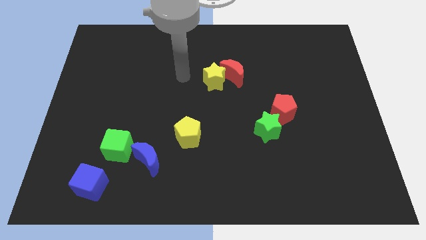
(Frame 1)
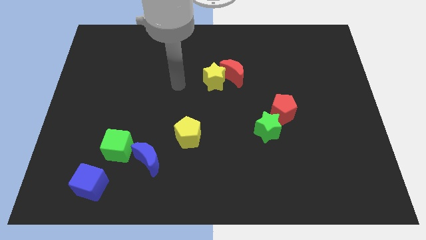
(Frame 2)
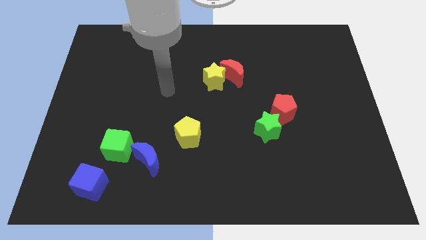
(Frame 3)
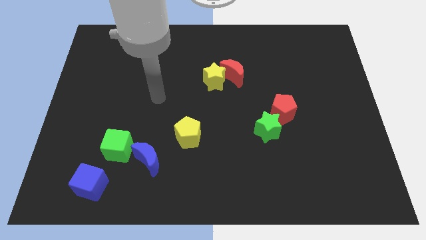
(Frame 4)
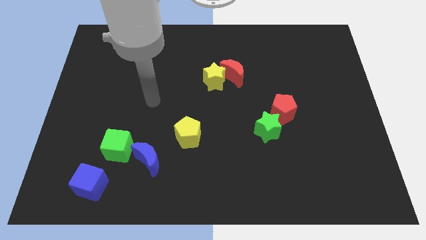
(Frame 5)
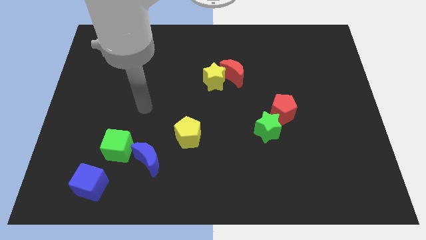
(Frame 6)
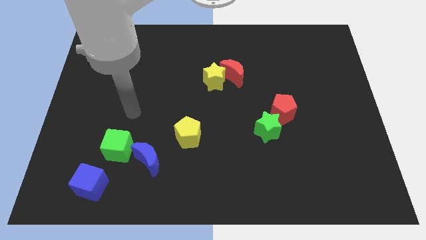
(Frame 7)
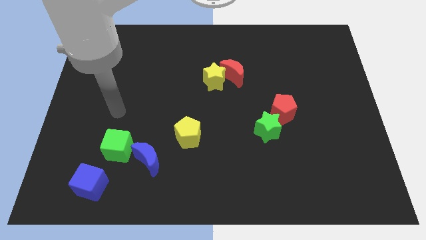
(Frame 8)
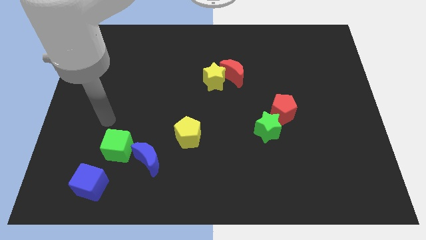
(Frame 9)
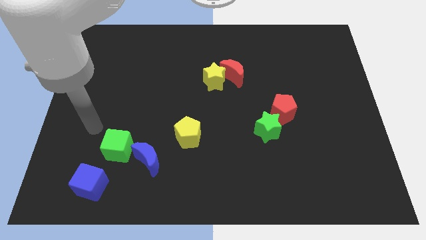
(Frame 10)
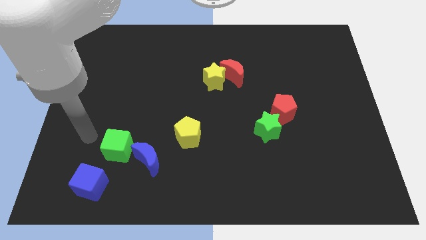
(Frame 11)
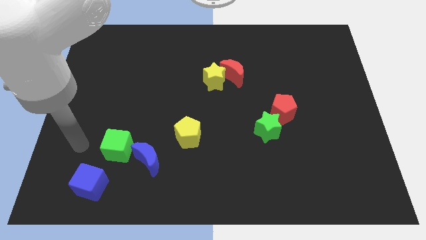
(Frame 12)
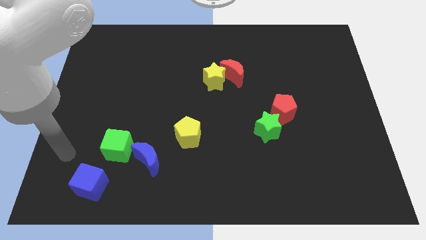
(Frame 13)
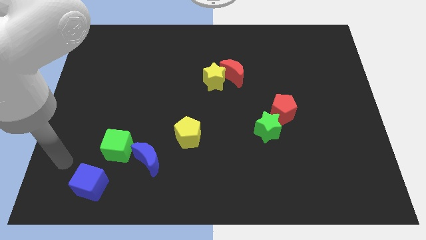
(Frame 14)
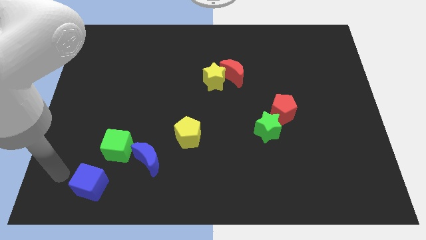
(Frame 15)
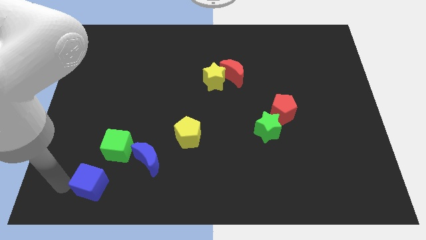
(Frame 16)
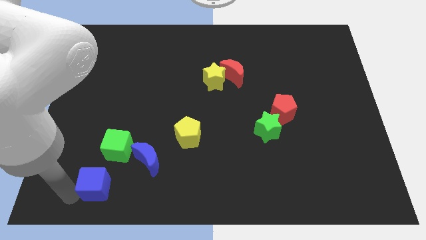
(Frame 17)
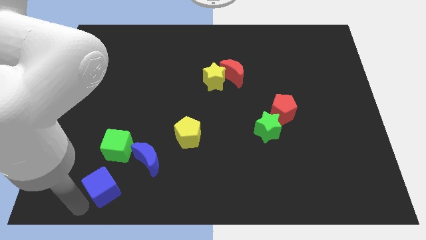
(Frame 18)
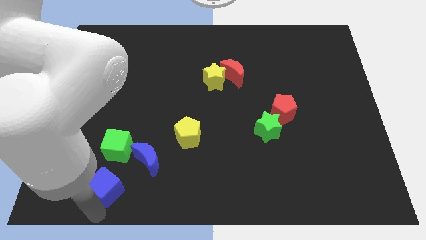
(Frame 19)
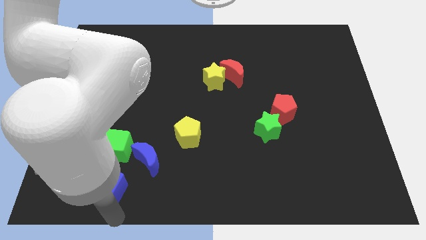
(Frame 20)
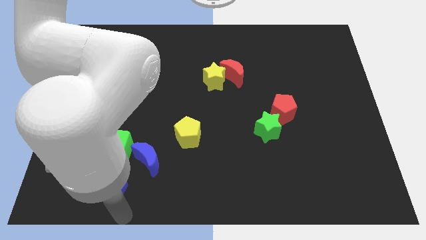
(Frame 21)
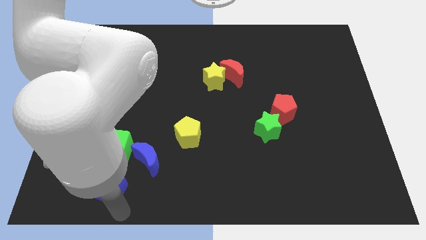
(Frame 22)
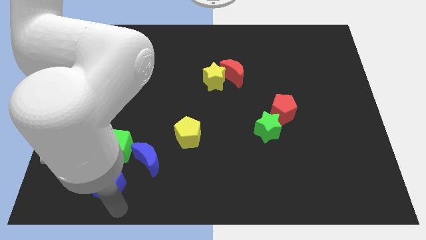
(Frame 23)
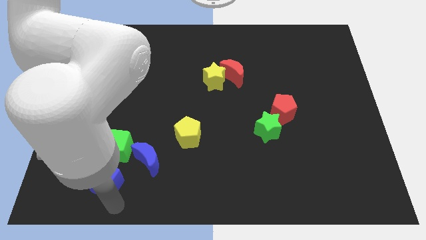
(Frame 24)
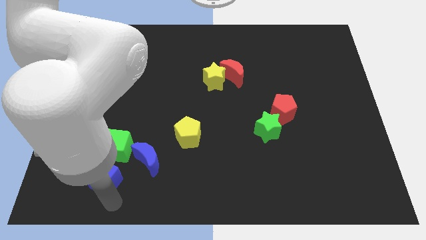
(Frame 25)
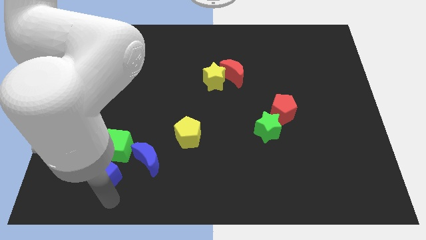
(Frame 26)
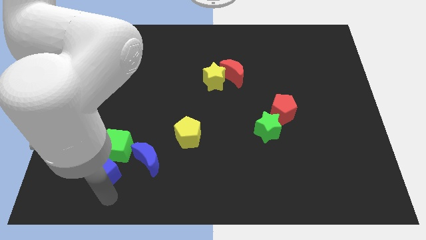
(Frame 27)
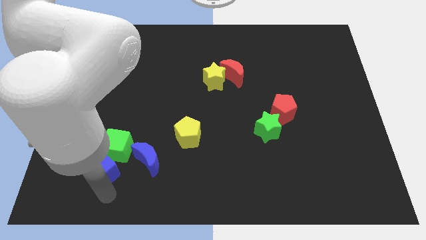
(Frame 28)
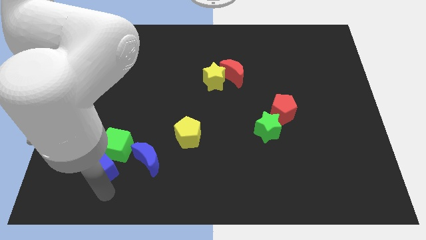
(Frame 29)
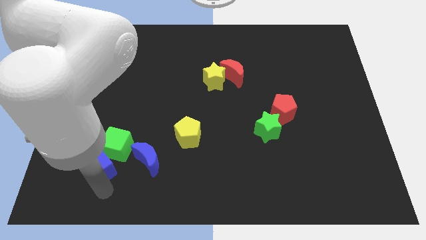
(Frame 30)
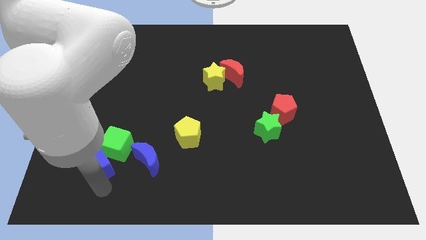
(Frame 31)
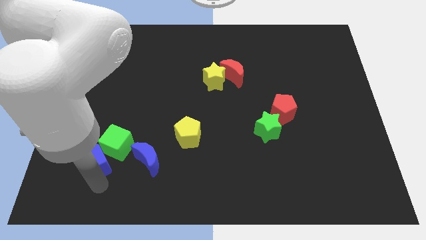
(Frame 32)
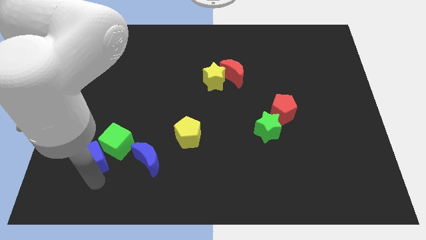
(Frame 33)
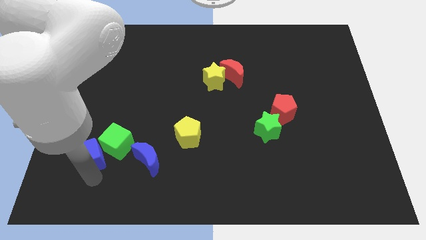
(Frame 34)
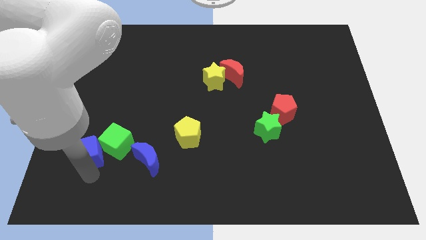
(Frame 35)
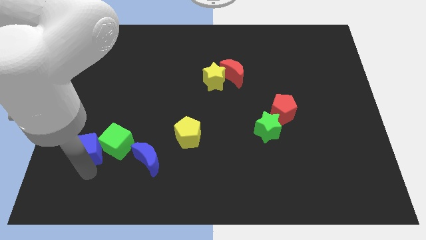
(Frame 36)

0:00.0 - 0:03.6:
move the blue cube a little bit upwards

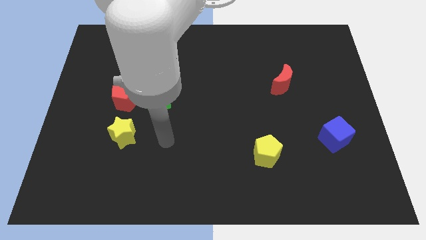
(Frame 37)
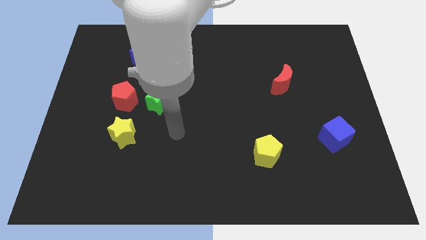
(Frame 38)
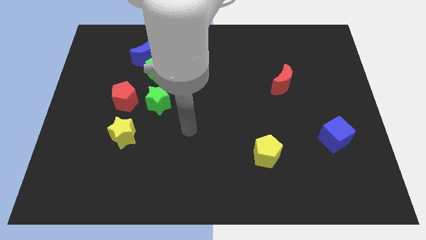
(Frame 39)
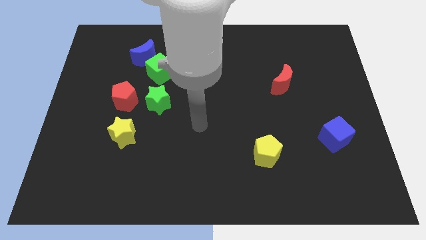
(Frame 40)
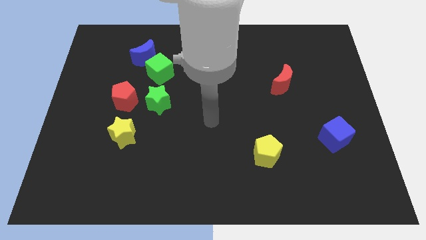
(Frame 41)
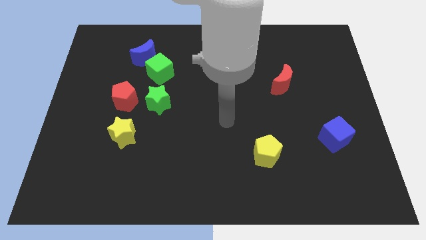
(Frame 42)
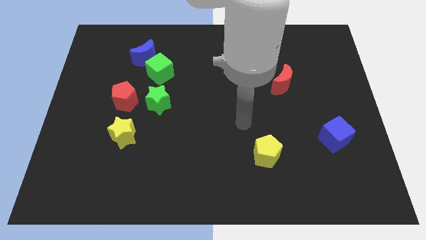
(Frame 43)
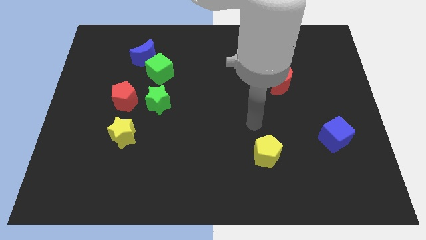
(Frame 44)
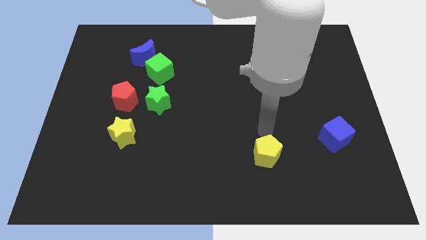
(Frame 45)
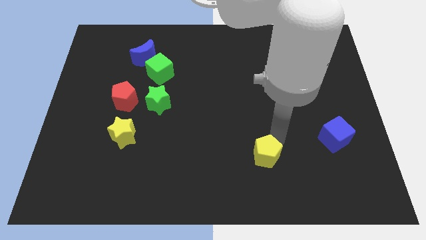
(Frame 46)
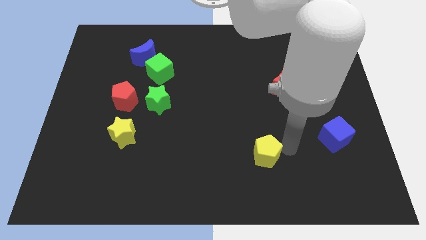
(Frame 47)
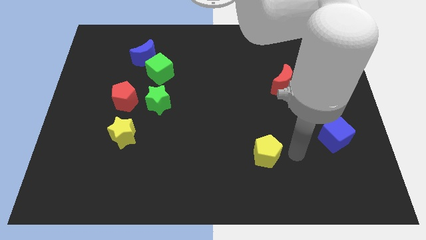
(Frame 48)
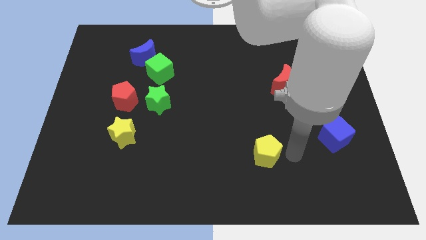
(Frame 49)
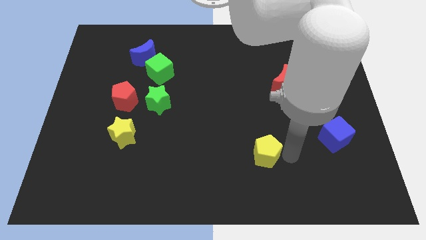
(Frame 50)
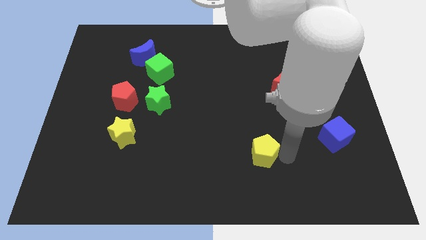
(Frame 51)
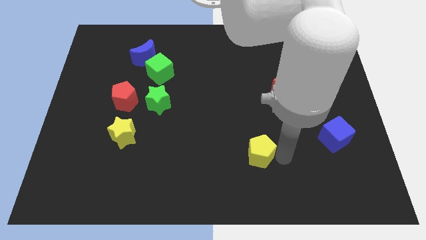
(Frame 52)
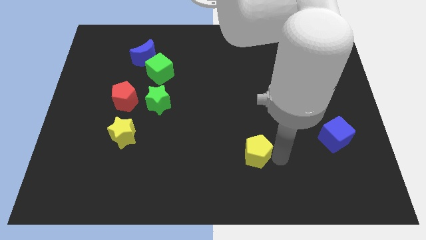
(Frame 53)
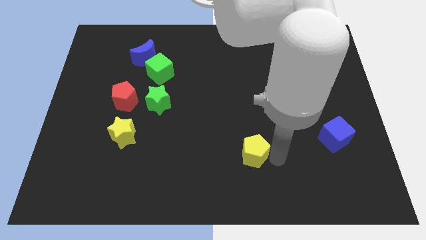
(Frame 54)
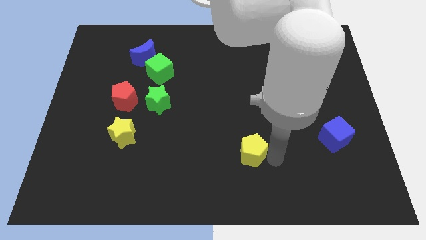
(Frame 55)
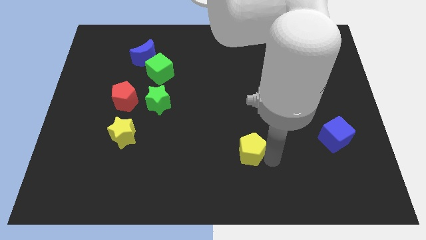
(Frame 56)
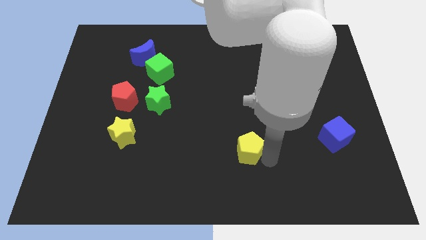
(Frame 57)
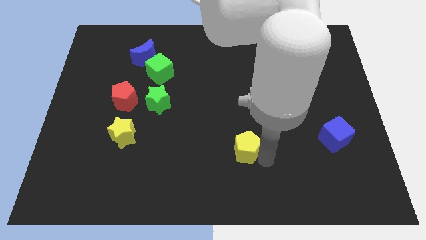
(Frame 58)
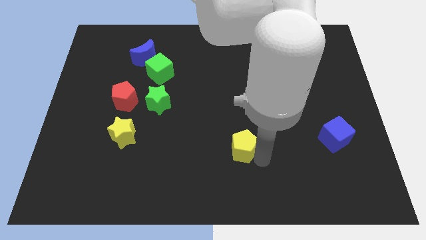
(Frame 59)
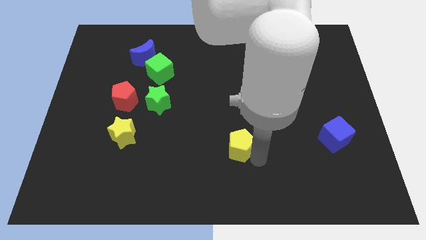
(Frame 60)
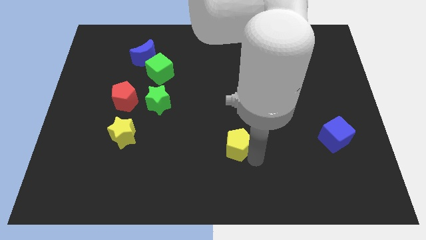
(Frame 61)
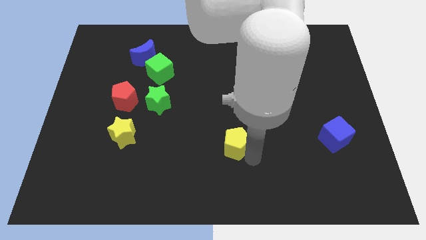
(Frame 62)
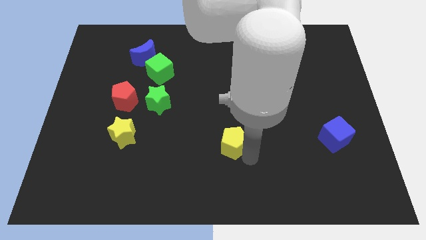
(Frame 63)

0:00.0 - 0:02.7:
slide the yellow pentagon a bit to the left

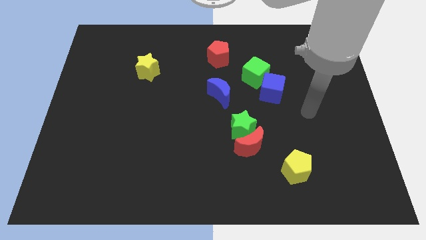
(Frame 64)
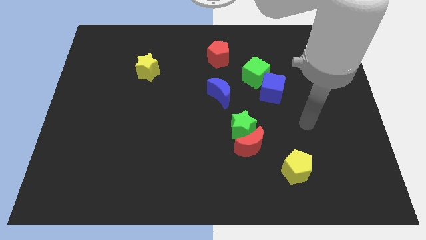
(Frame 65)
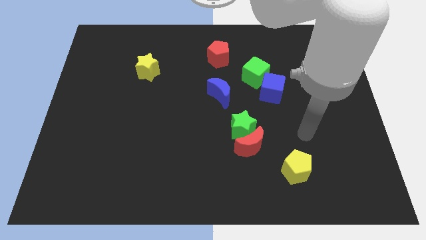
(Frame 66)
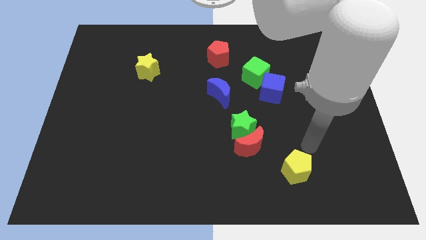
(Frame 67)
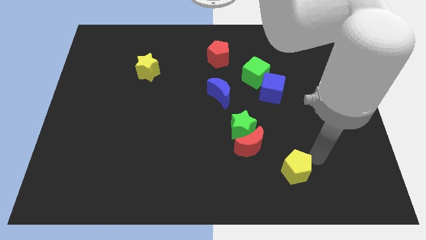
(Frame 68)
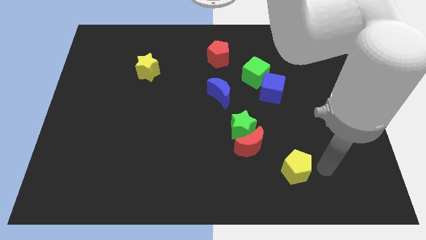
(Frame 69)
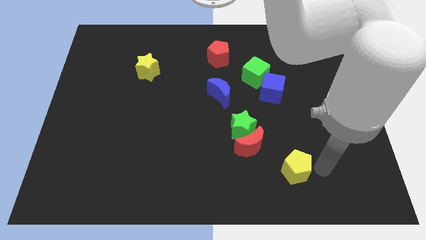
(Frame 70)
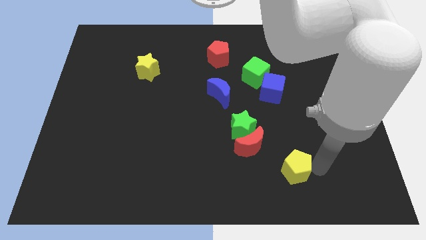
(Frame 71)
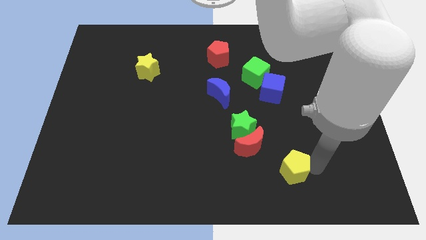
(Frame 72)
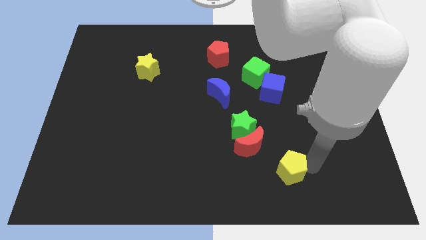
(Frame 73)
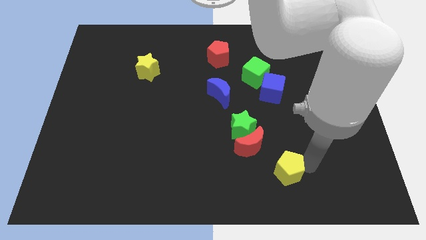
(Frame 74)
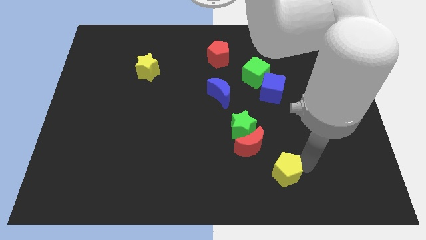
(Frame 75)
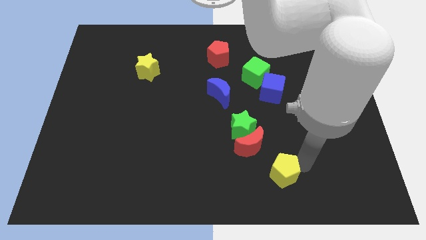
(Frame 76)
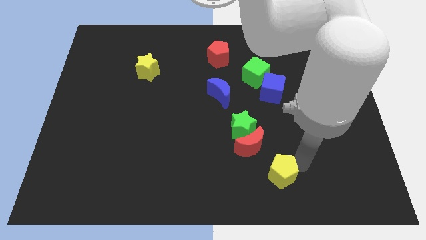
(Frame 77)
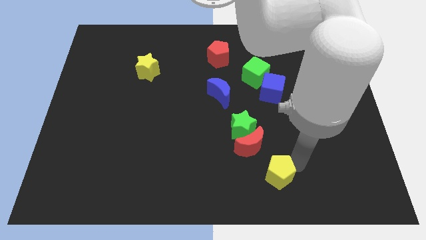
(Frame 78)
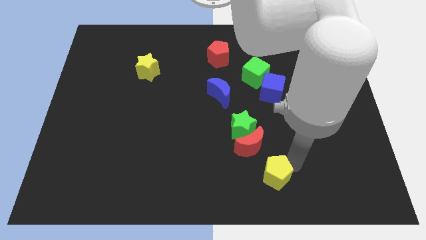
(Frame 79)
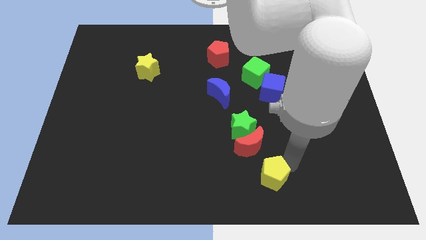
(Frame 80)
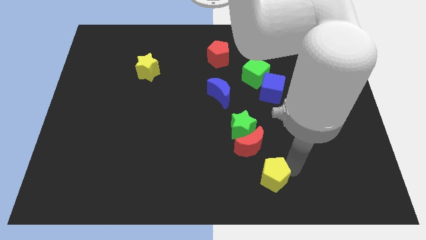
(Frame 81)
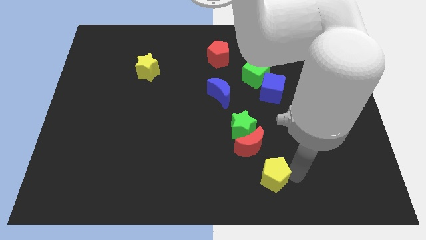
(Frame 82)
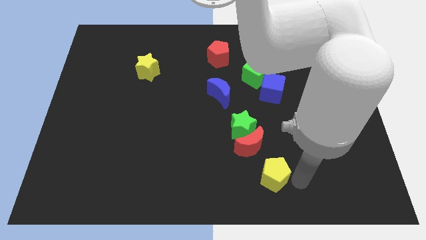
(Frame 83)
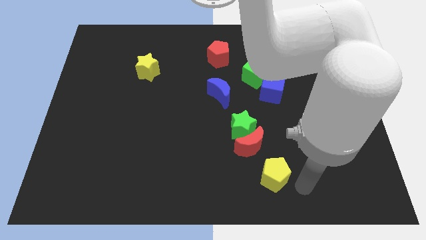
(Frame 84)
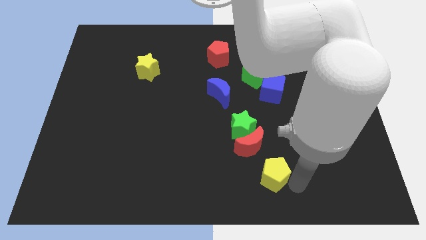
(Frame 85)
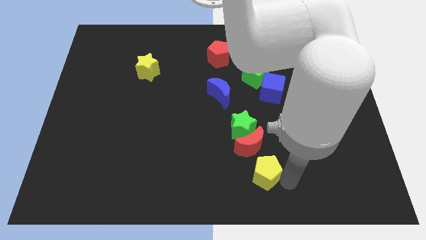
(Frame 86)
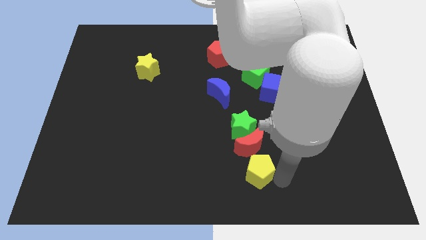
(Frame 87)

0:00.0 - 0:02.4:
slightly slide the yellow pentagon to the left
